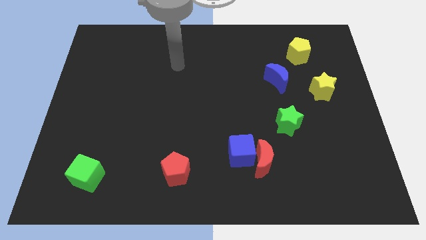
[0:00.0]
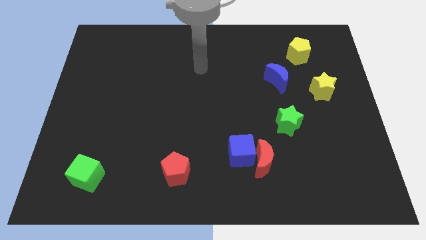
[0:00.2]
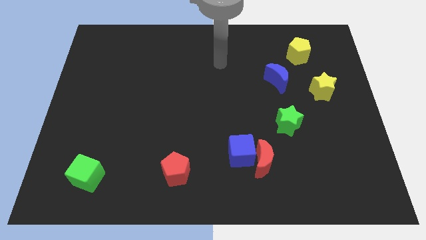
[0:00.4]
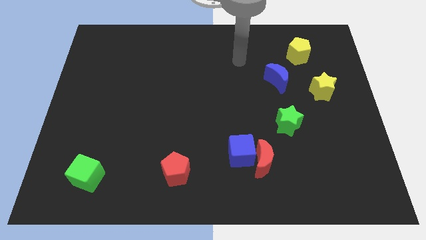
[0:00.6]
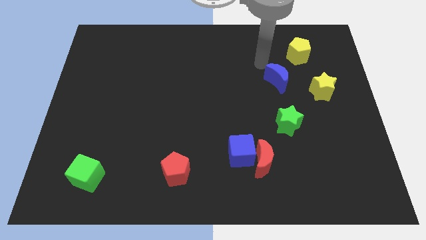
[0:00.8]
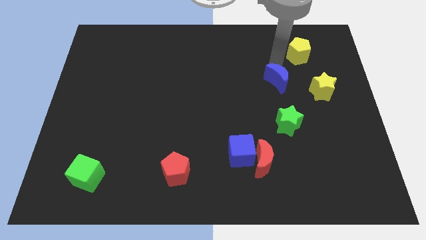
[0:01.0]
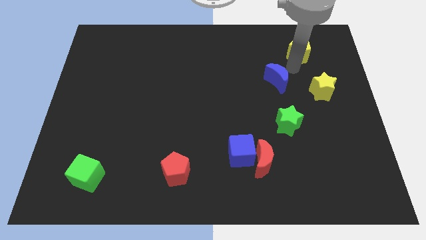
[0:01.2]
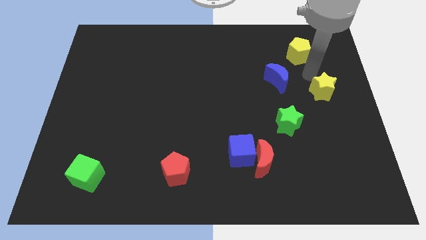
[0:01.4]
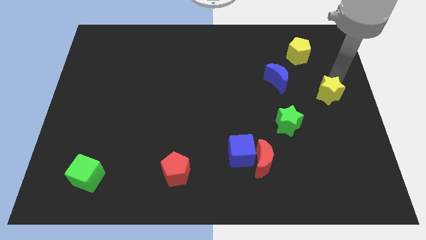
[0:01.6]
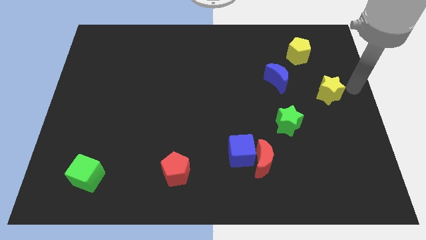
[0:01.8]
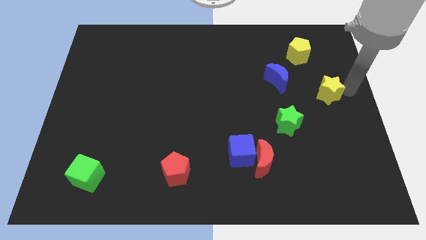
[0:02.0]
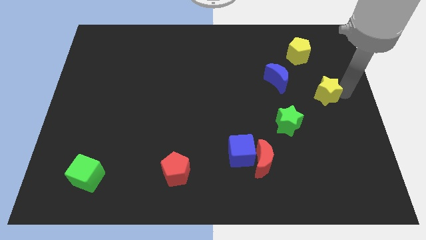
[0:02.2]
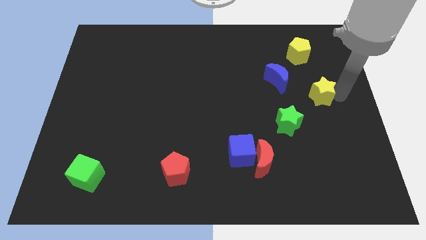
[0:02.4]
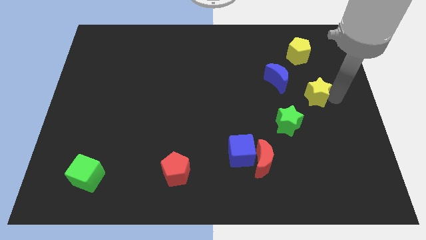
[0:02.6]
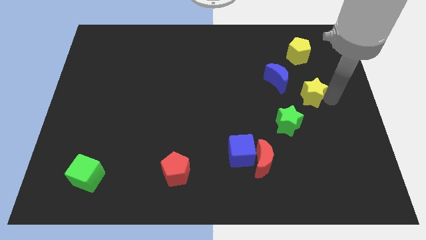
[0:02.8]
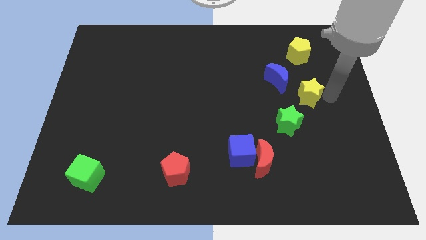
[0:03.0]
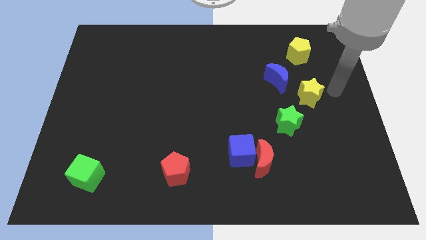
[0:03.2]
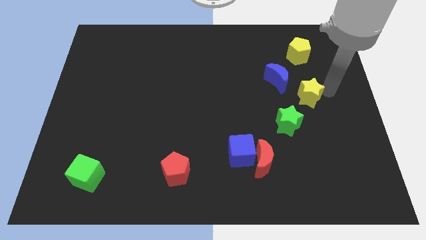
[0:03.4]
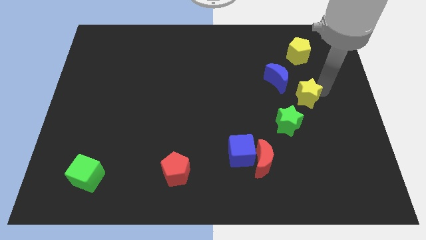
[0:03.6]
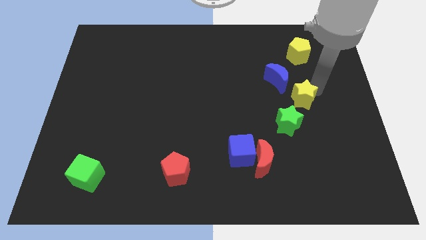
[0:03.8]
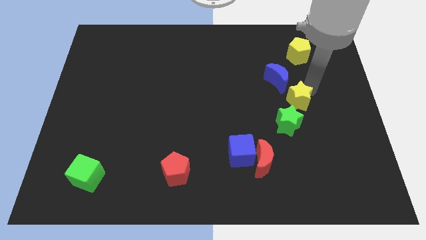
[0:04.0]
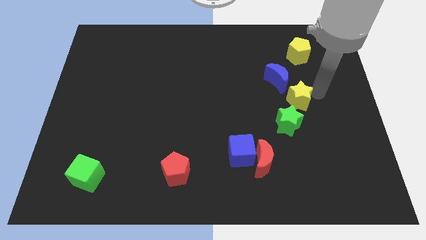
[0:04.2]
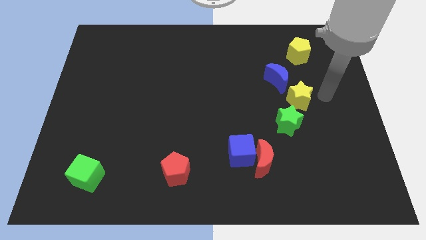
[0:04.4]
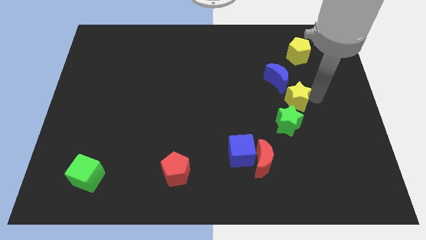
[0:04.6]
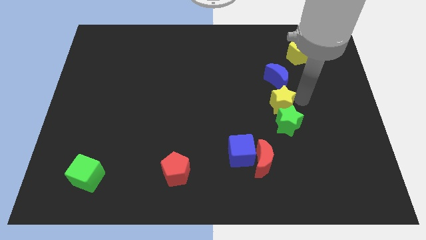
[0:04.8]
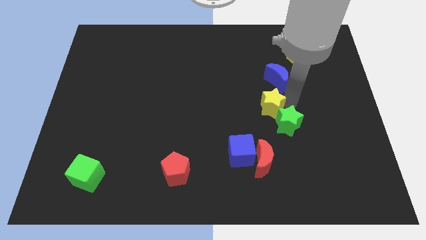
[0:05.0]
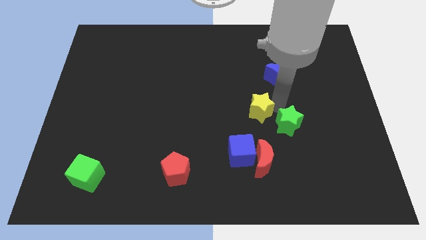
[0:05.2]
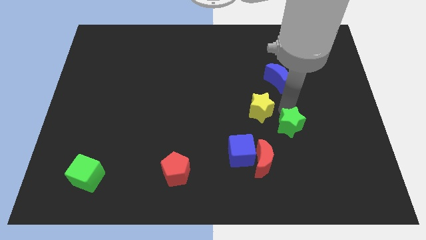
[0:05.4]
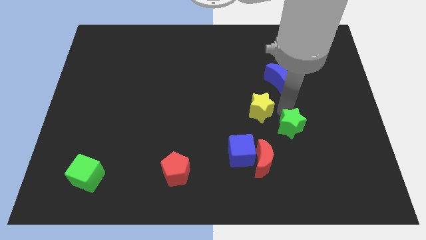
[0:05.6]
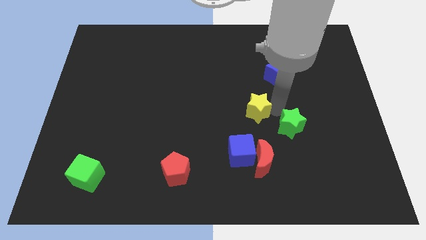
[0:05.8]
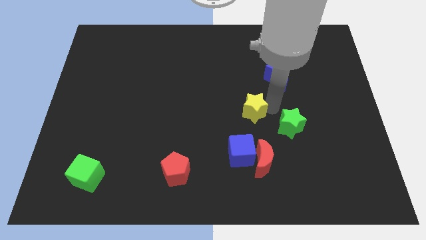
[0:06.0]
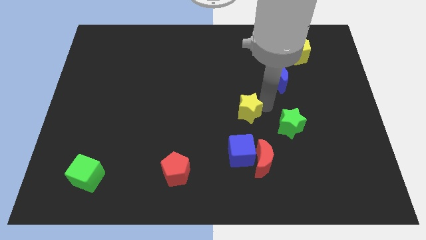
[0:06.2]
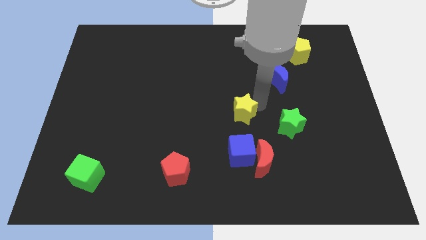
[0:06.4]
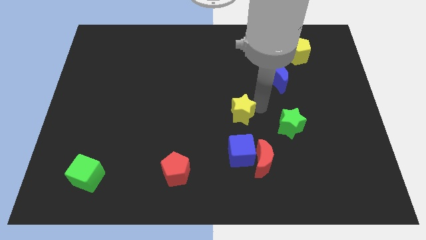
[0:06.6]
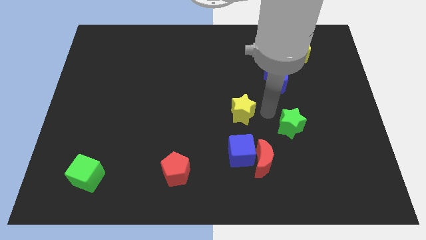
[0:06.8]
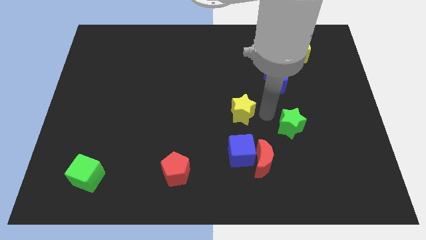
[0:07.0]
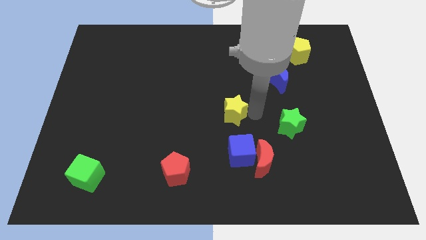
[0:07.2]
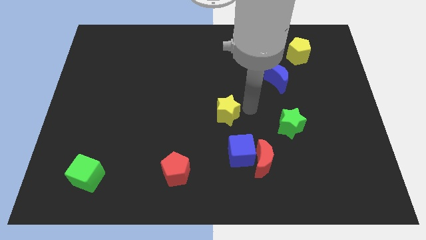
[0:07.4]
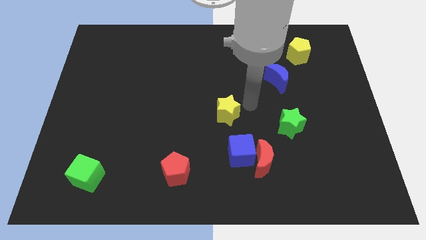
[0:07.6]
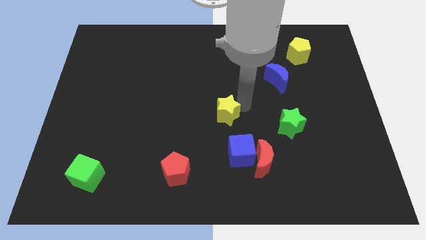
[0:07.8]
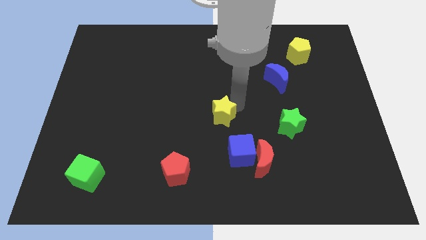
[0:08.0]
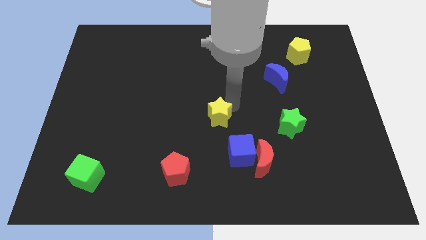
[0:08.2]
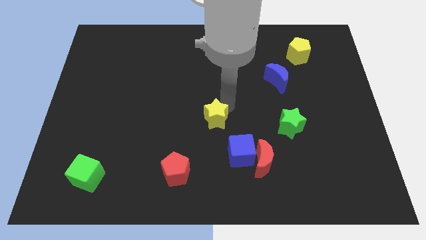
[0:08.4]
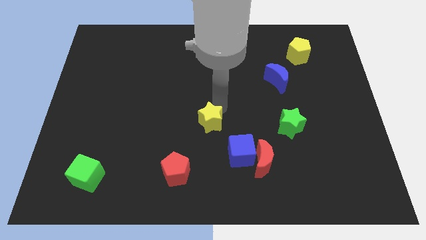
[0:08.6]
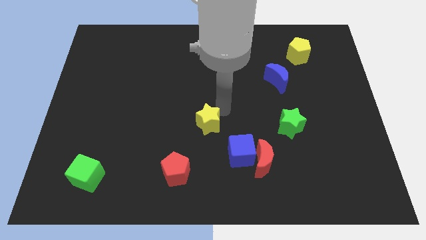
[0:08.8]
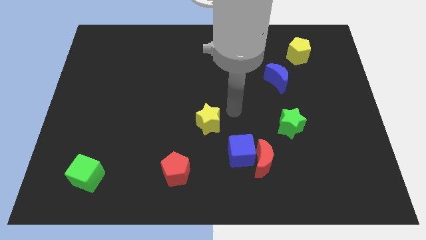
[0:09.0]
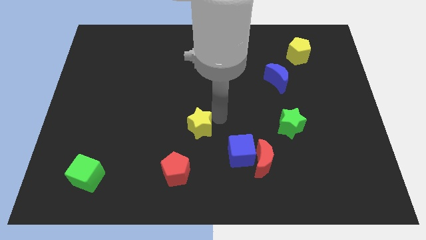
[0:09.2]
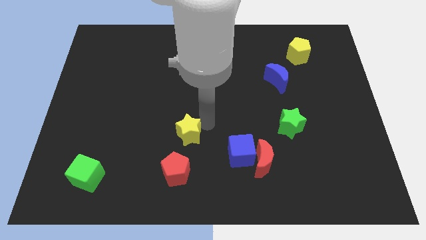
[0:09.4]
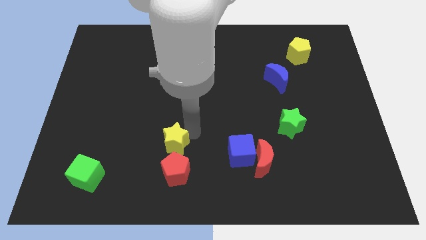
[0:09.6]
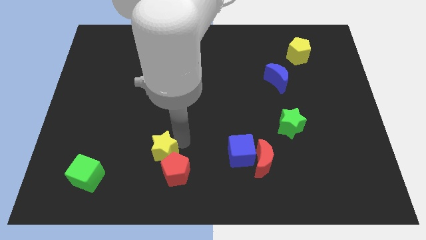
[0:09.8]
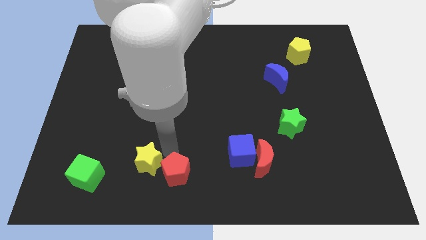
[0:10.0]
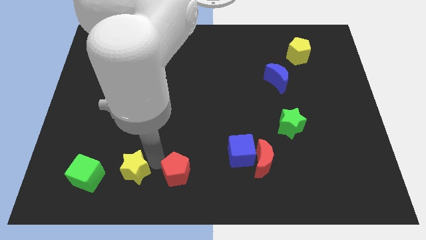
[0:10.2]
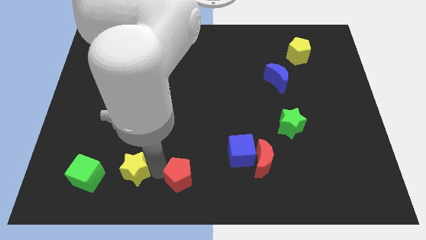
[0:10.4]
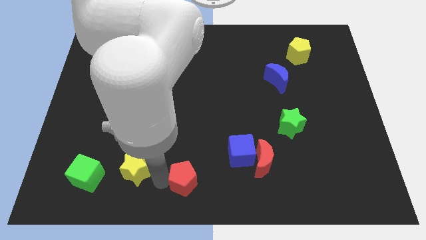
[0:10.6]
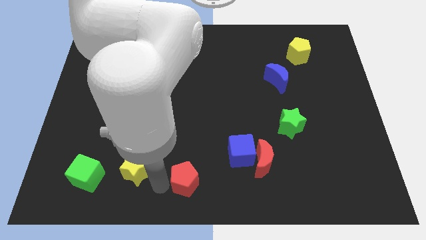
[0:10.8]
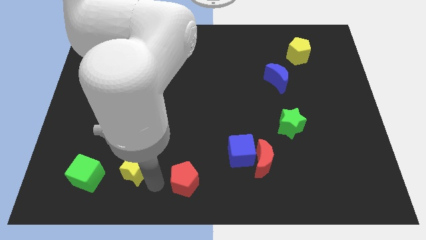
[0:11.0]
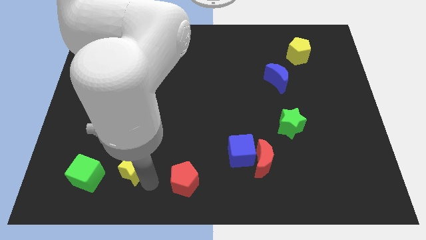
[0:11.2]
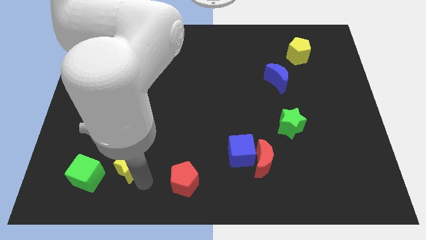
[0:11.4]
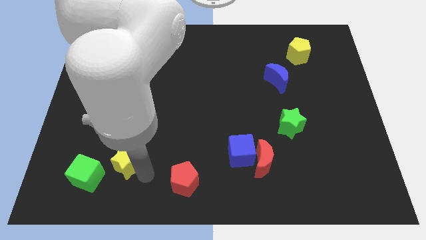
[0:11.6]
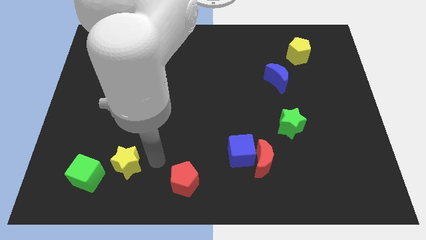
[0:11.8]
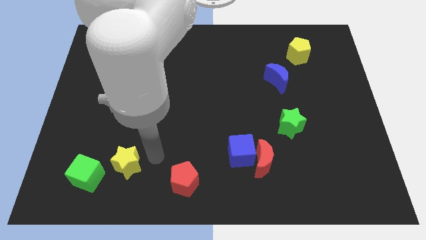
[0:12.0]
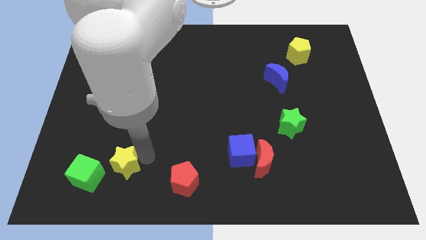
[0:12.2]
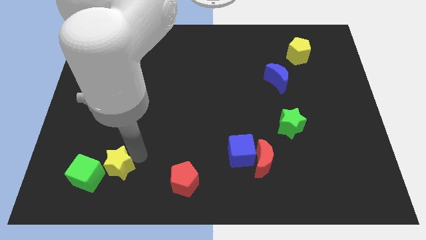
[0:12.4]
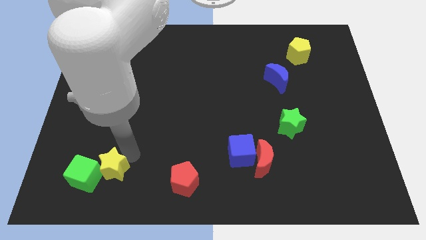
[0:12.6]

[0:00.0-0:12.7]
put the yellow star to the green cube
